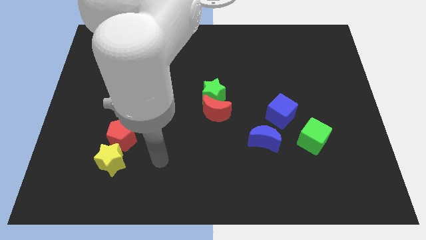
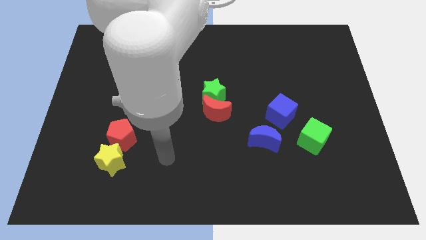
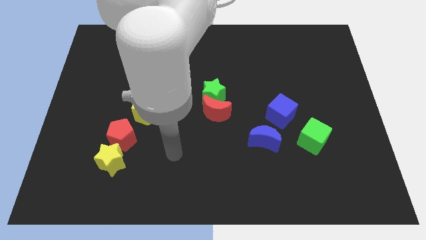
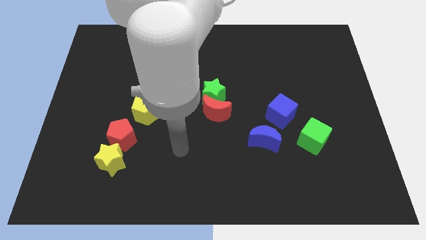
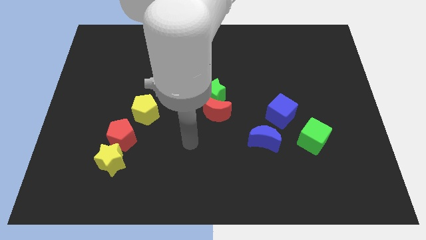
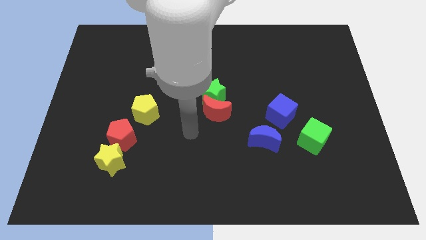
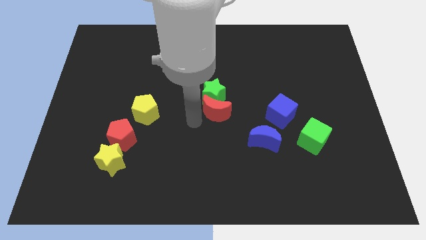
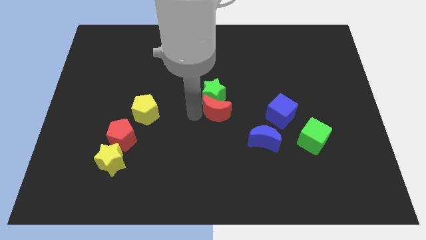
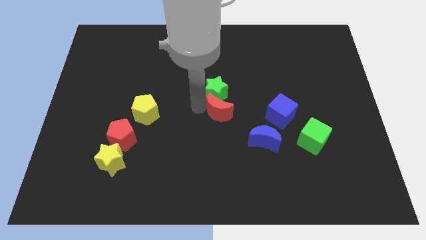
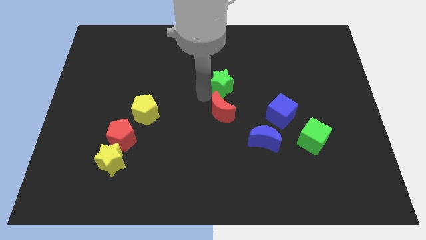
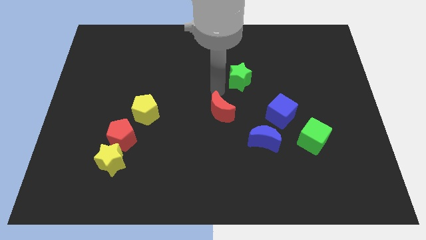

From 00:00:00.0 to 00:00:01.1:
separate the red moon from the green star

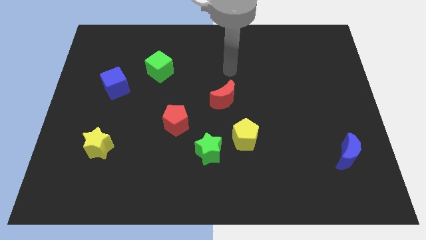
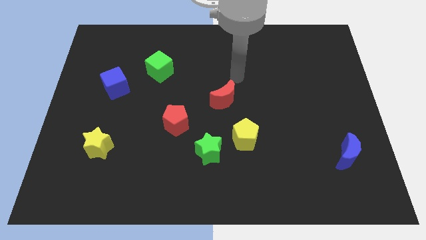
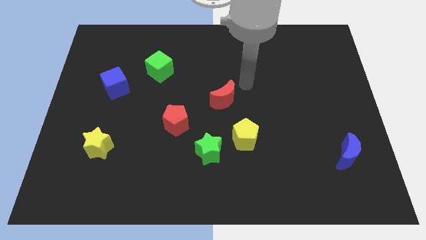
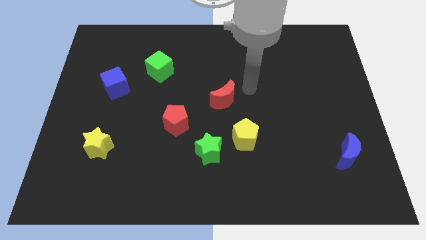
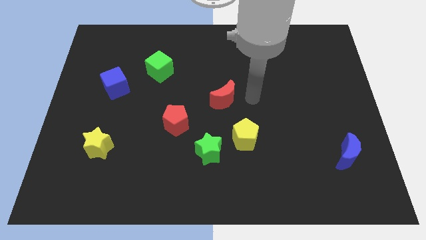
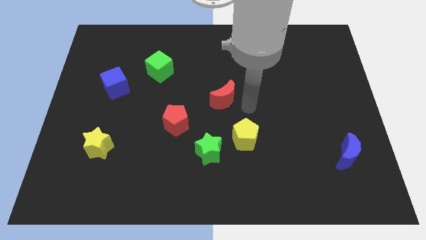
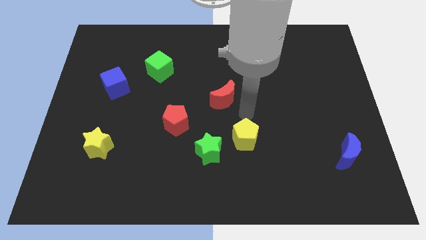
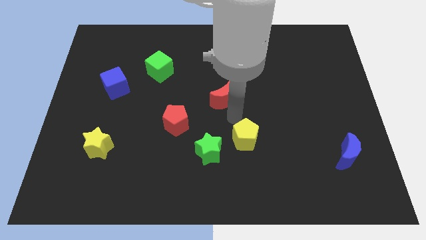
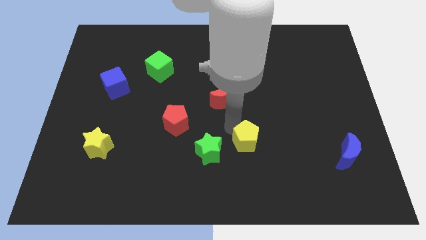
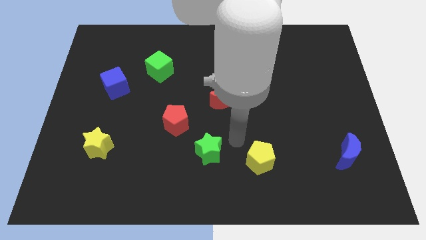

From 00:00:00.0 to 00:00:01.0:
separate the green star from the yellow pentagon

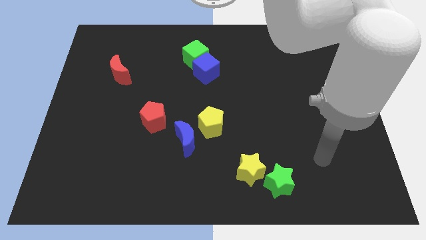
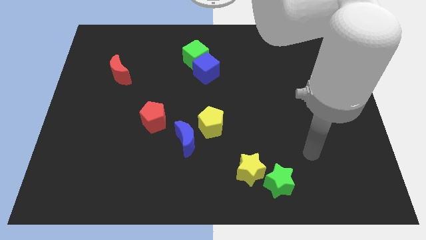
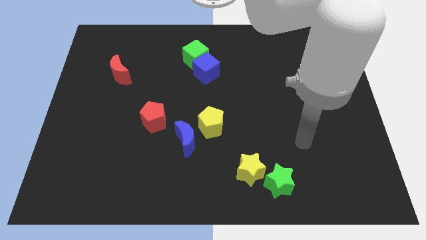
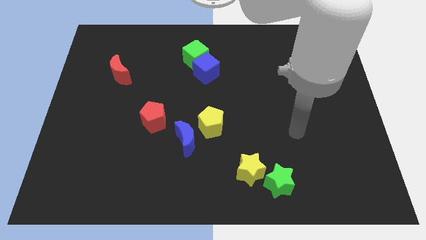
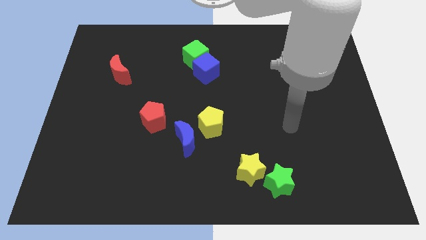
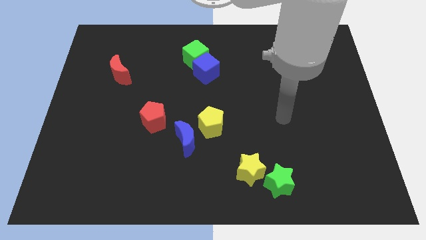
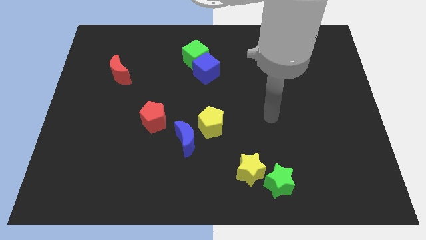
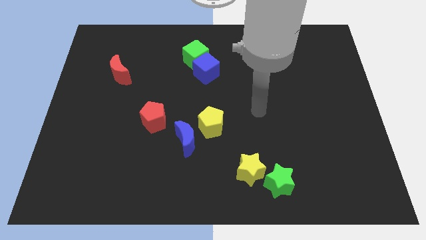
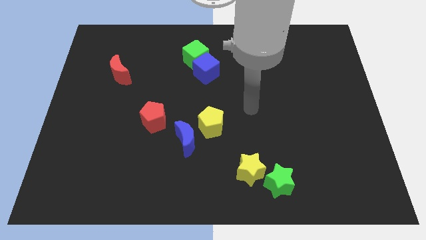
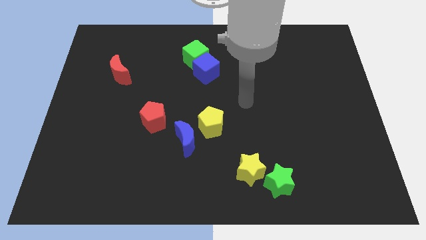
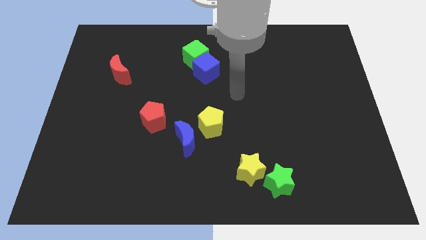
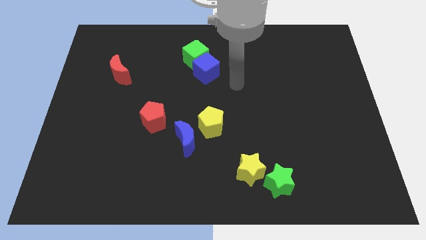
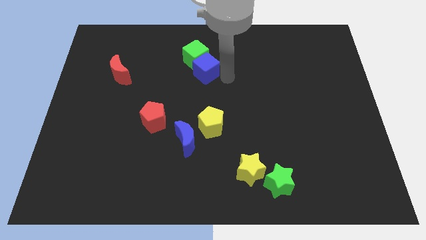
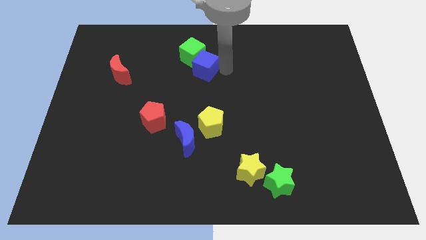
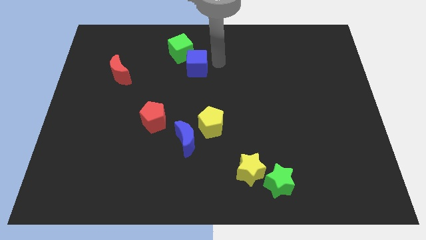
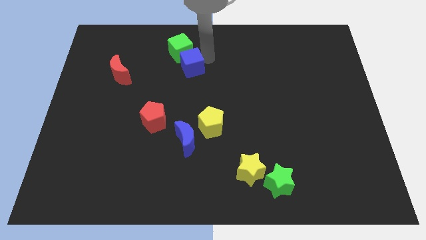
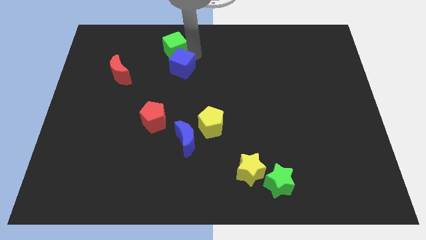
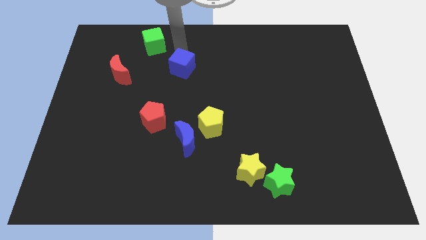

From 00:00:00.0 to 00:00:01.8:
pull the blue cube apart from the green cube

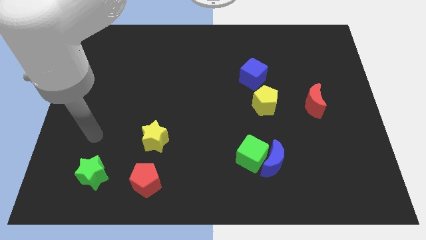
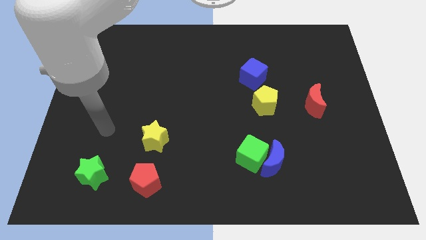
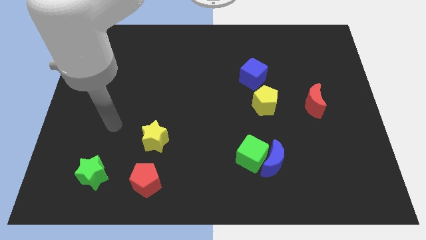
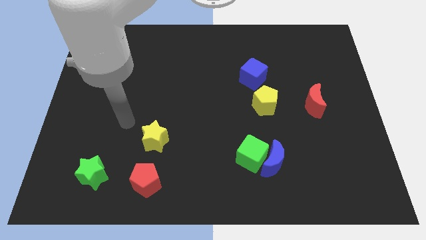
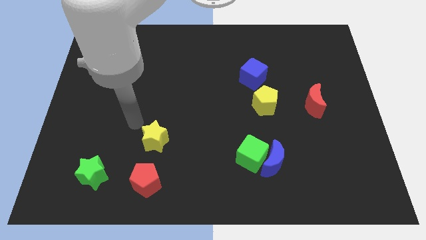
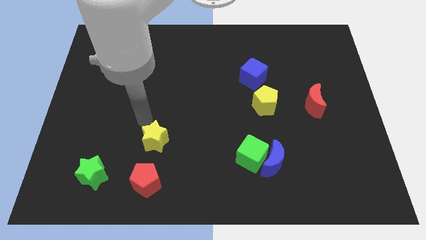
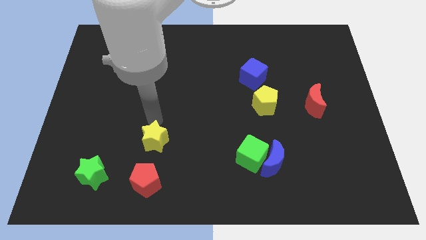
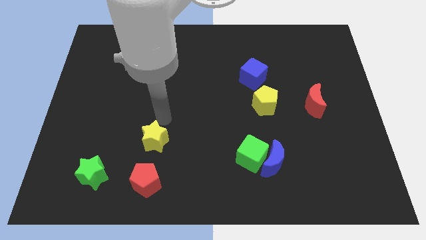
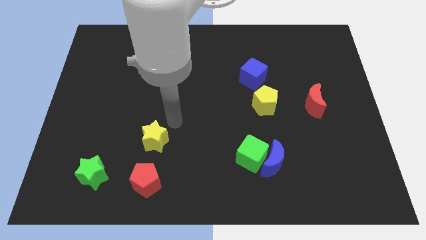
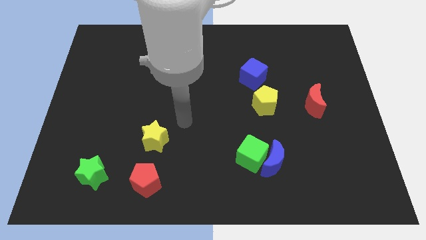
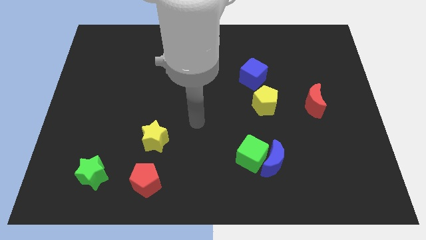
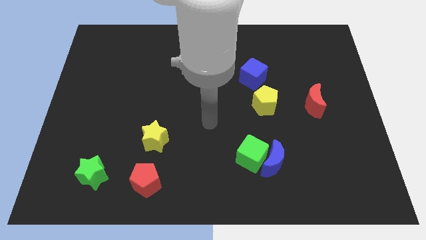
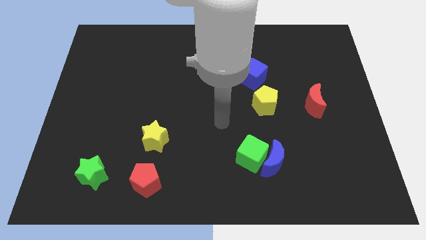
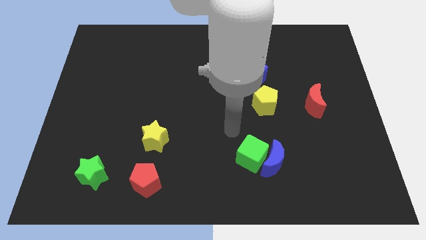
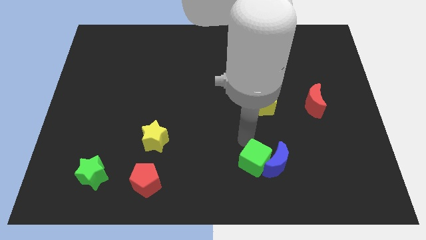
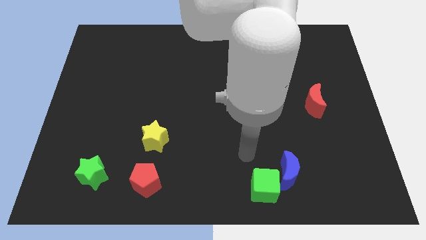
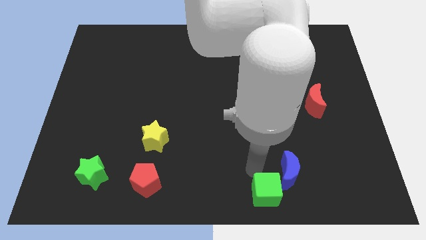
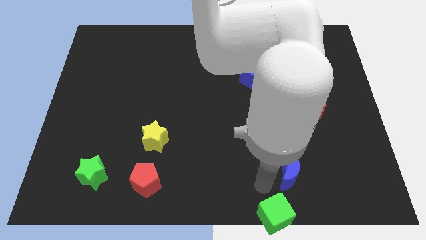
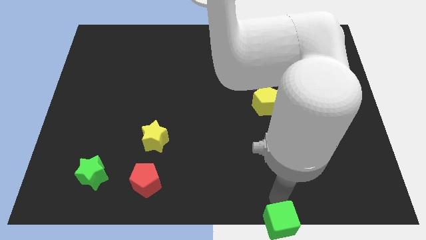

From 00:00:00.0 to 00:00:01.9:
pull the blue moon apart from the green cube

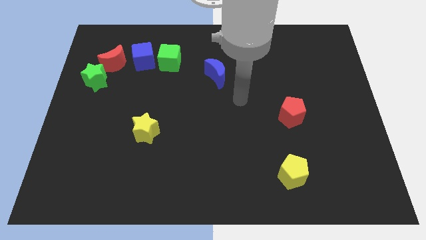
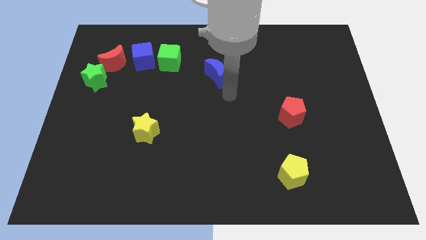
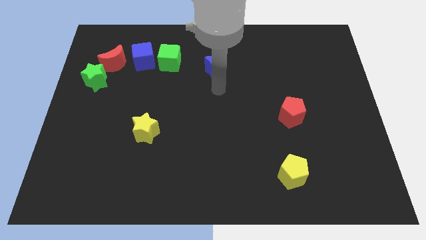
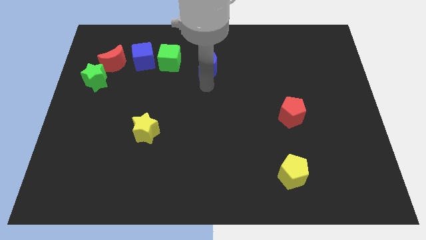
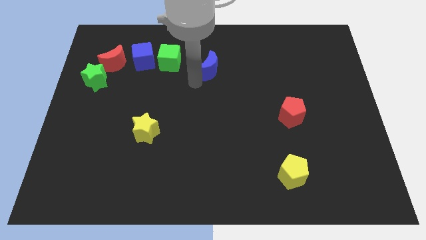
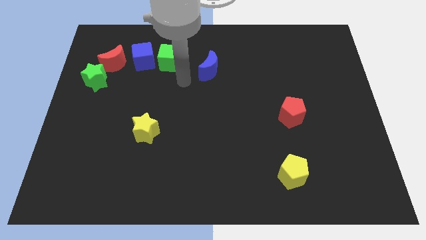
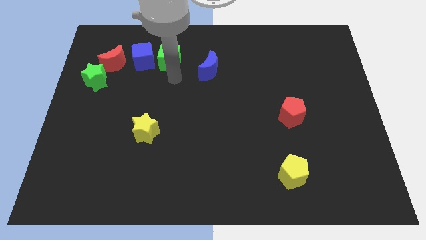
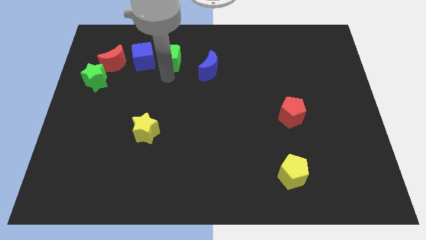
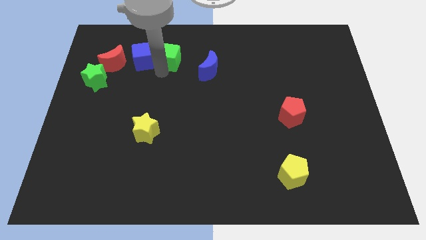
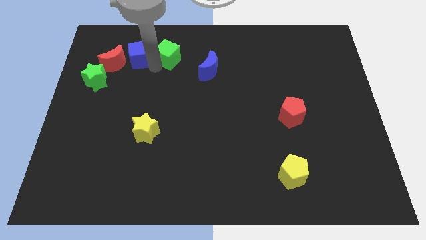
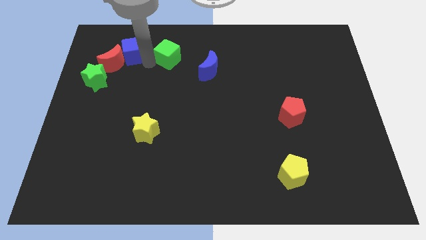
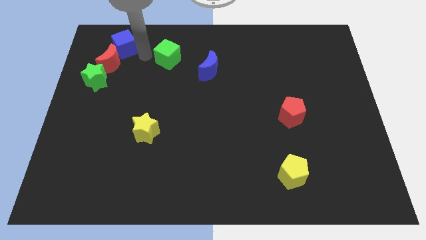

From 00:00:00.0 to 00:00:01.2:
separate the green cube from the blue cube

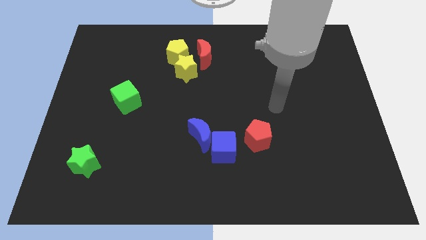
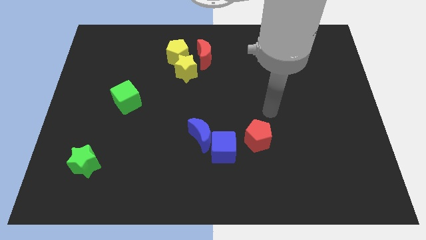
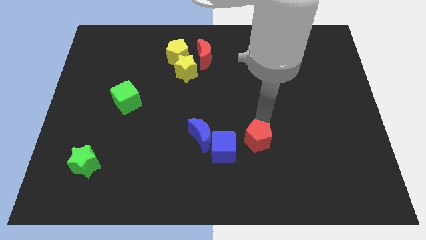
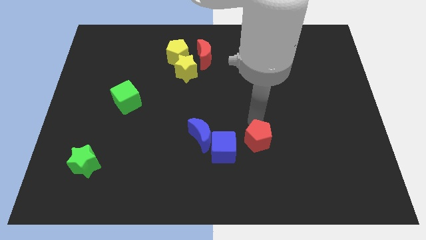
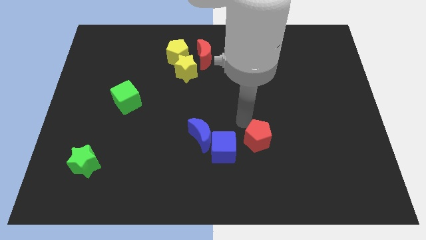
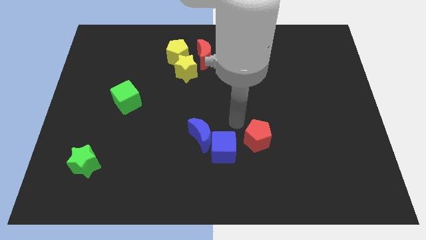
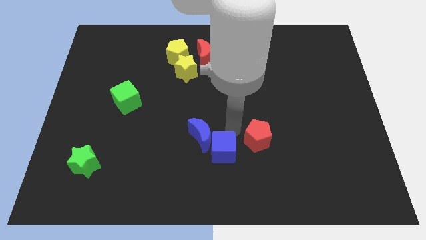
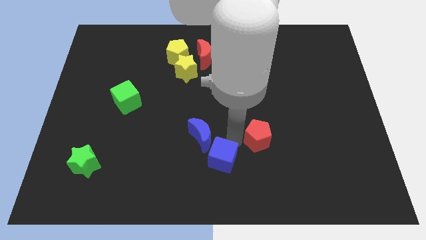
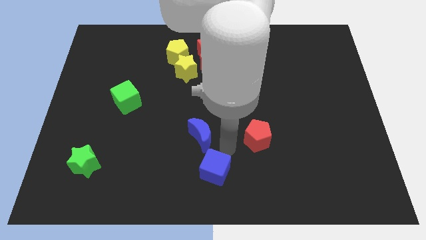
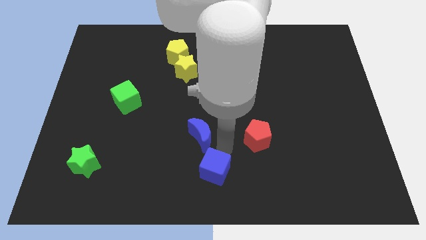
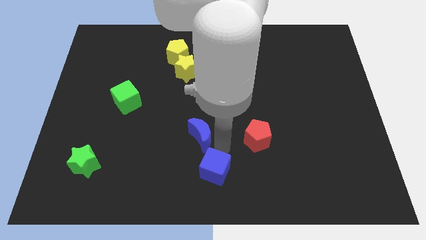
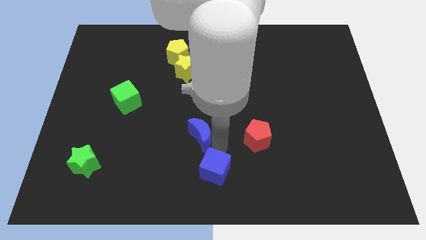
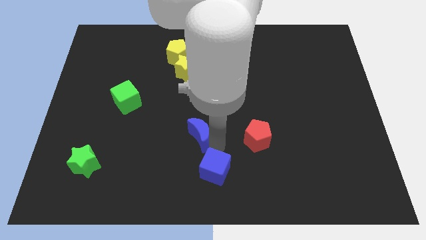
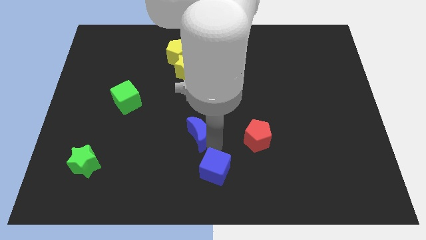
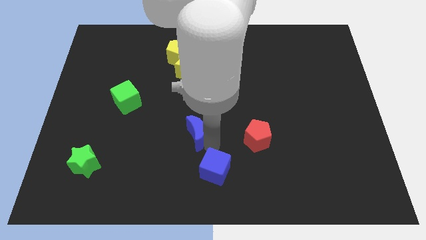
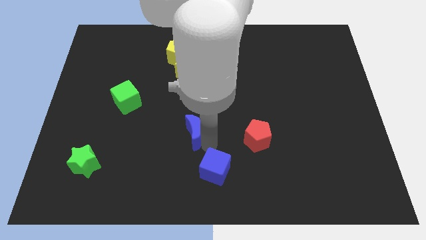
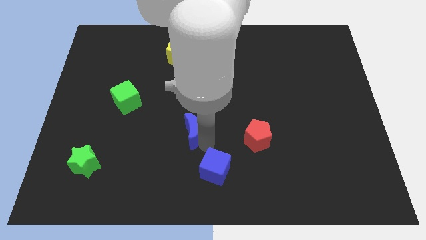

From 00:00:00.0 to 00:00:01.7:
pull the blue moon apart from the blue cube

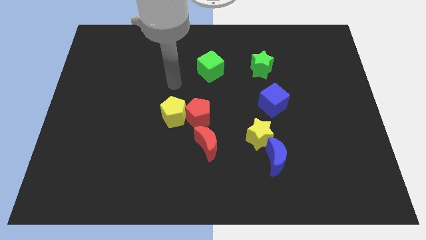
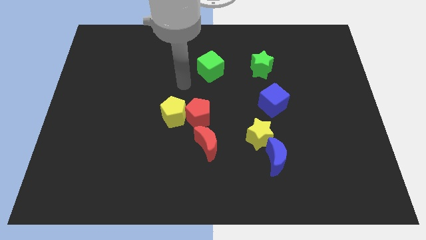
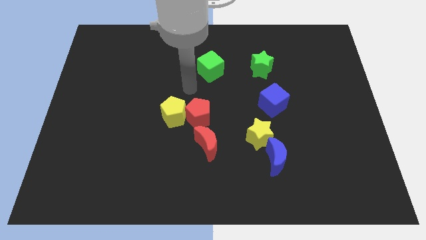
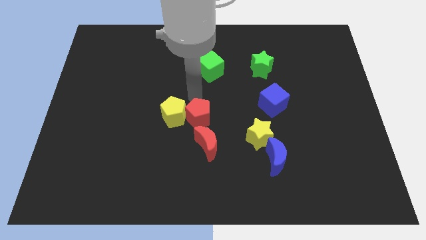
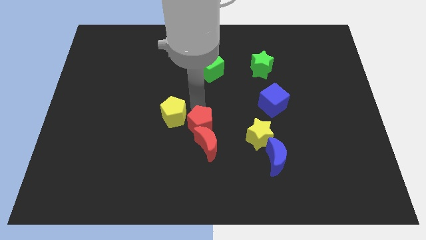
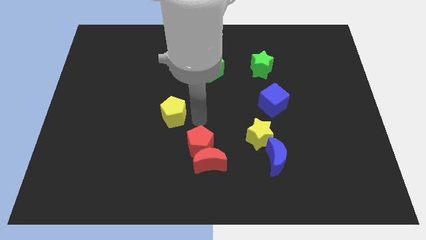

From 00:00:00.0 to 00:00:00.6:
separate the yellow pentagon from the red pentagon
